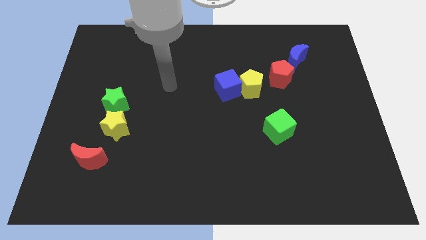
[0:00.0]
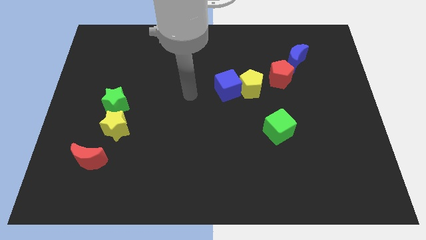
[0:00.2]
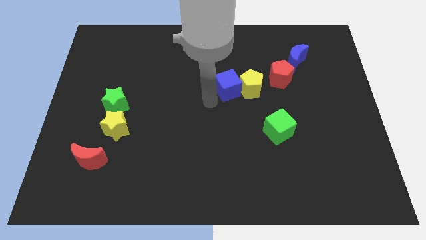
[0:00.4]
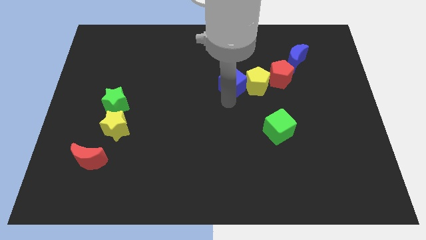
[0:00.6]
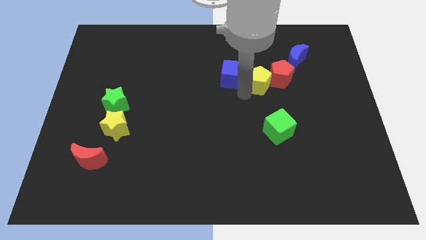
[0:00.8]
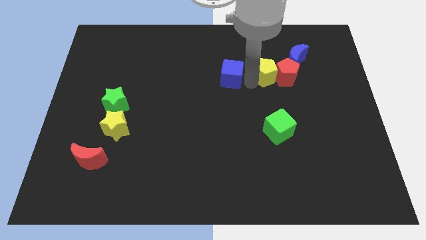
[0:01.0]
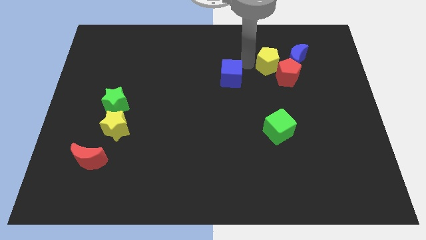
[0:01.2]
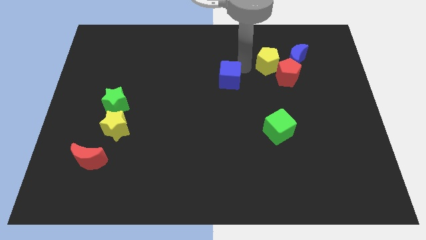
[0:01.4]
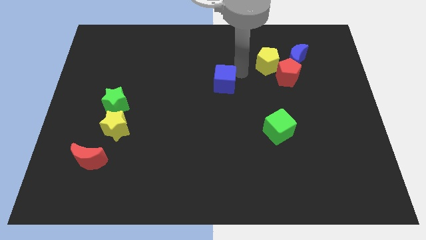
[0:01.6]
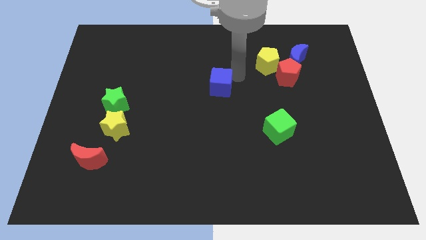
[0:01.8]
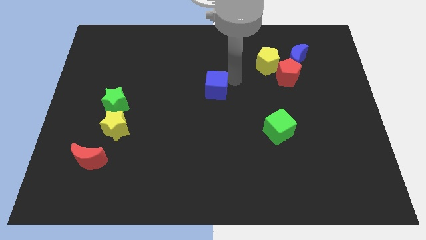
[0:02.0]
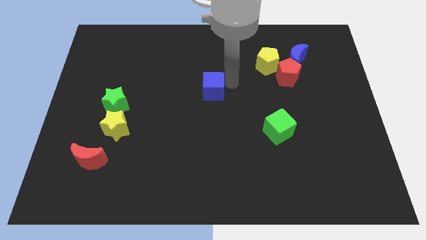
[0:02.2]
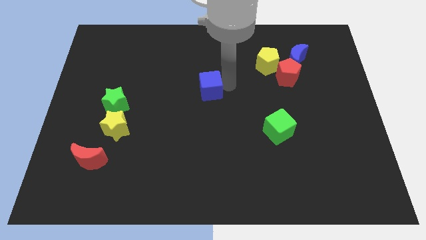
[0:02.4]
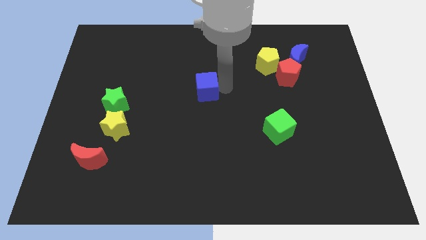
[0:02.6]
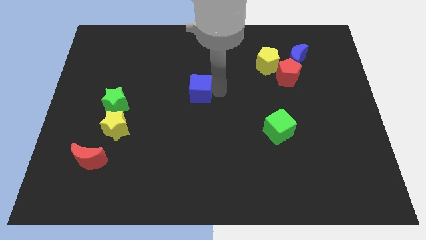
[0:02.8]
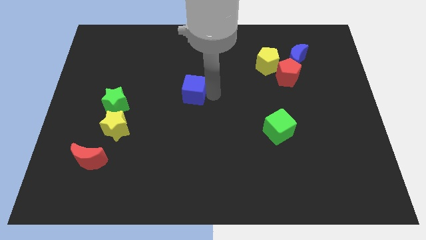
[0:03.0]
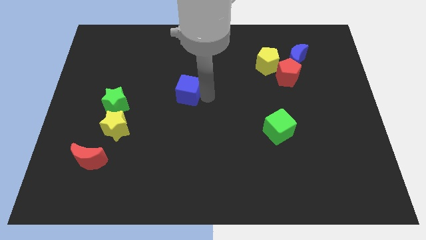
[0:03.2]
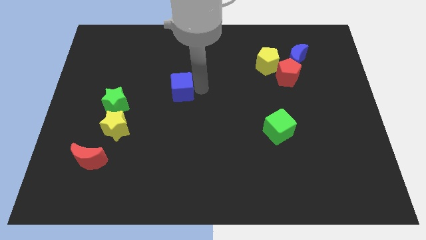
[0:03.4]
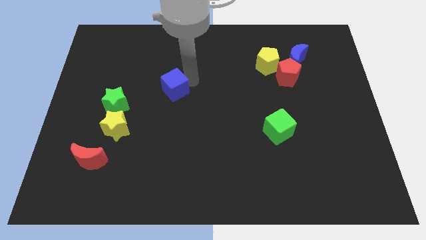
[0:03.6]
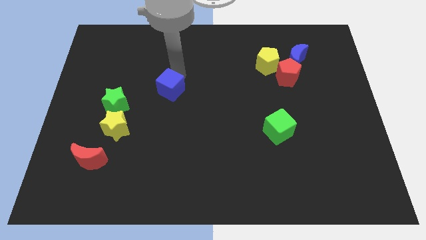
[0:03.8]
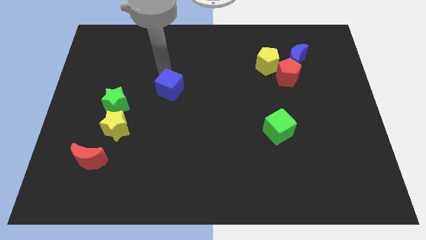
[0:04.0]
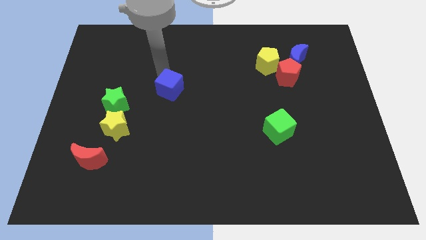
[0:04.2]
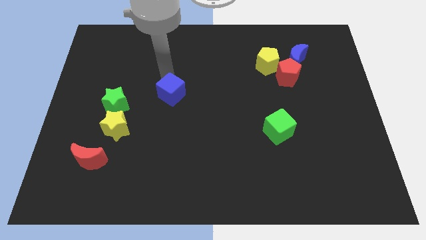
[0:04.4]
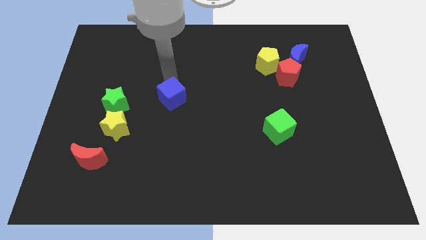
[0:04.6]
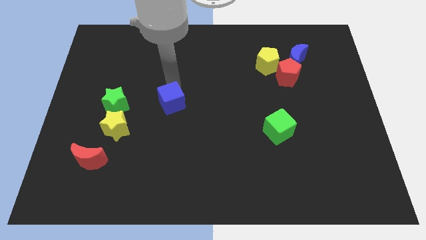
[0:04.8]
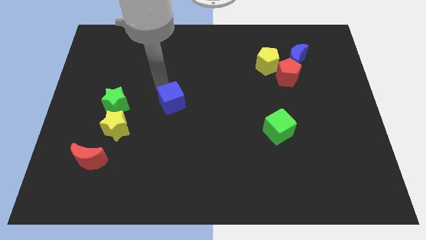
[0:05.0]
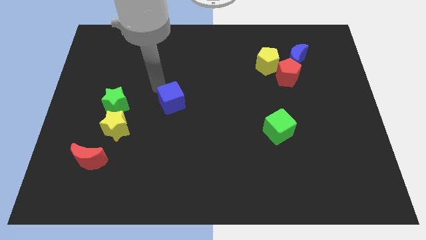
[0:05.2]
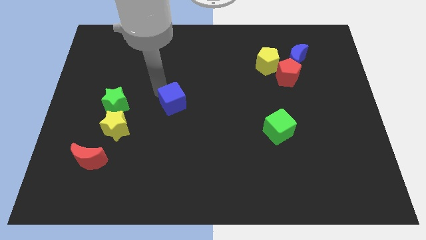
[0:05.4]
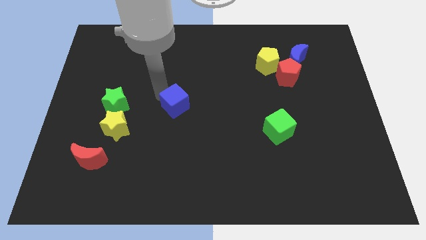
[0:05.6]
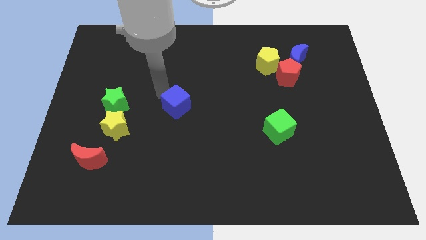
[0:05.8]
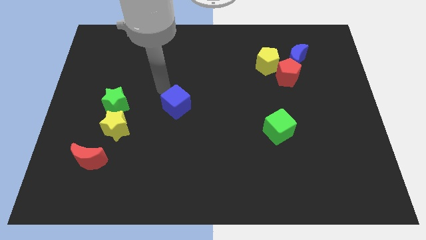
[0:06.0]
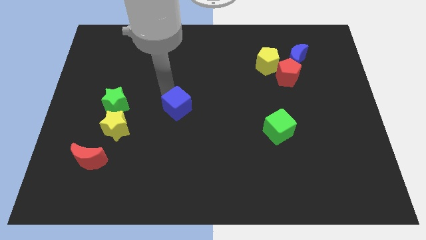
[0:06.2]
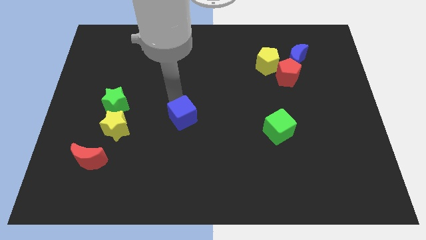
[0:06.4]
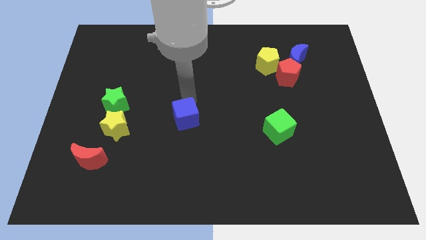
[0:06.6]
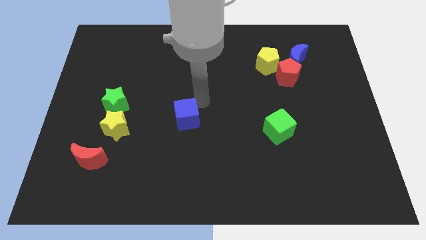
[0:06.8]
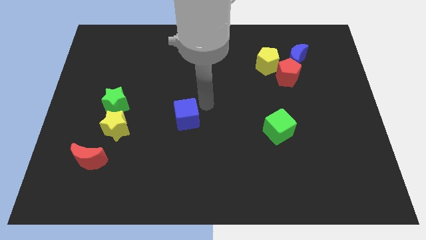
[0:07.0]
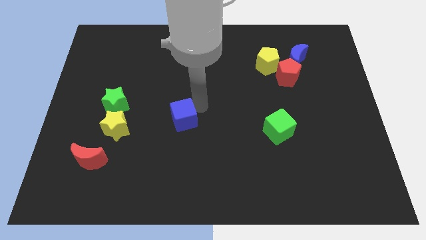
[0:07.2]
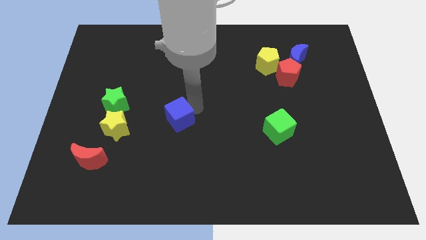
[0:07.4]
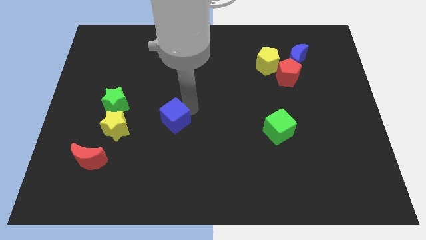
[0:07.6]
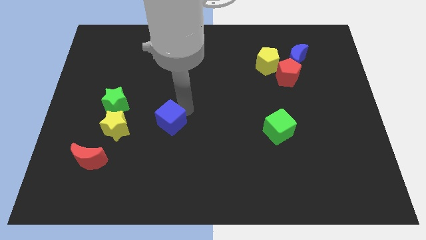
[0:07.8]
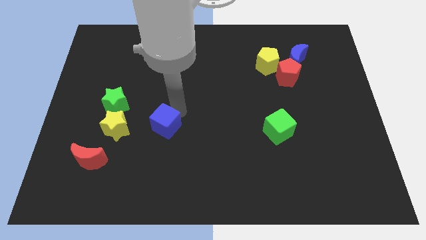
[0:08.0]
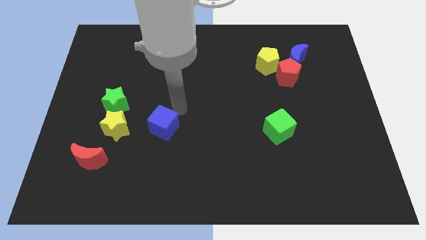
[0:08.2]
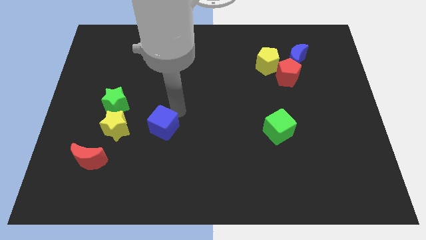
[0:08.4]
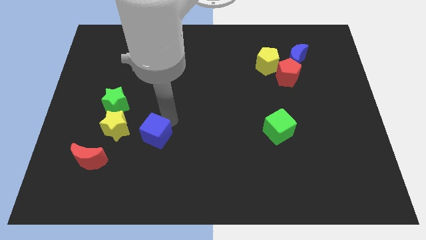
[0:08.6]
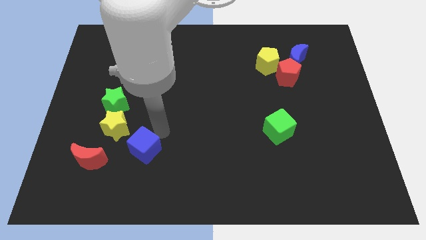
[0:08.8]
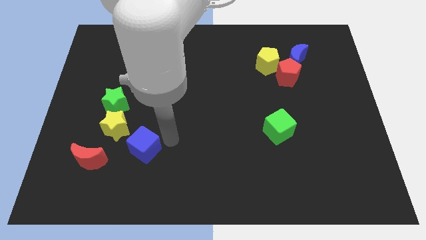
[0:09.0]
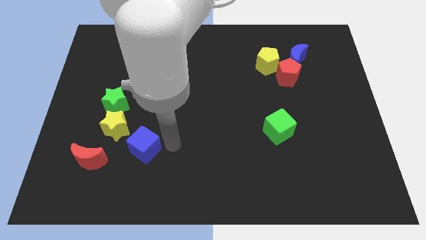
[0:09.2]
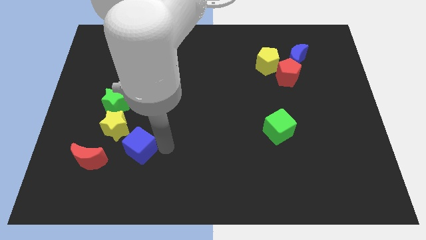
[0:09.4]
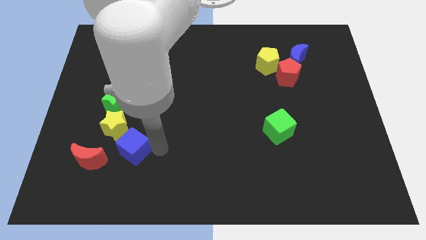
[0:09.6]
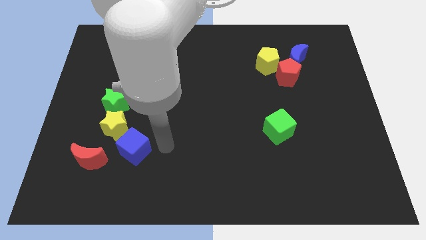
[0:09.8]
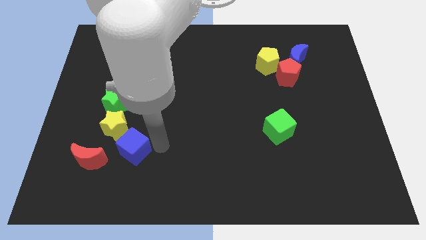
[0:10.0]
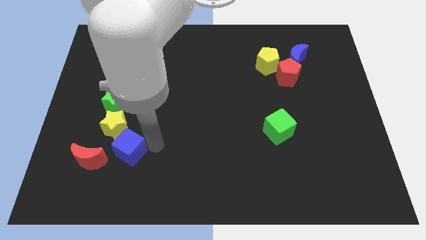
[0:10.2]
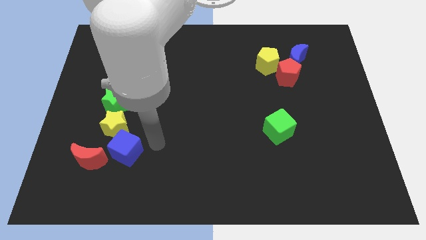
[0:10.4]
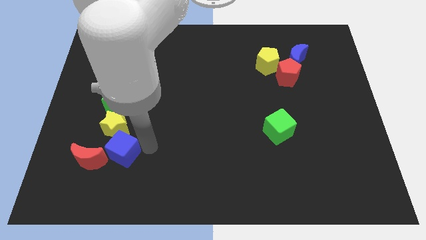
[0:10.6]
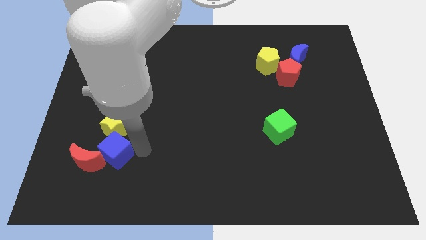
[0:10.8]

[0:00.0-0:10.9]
move the blue cube close to the red moon

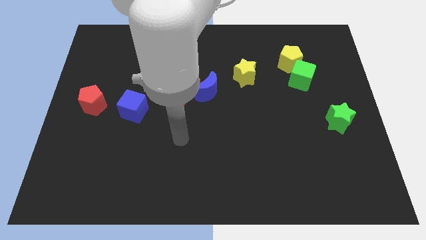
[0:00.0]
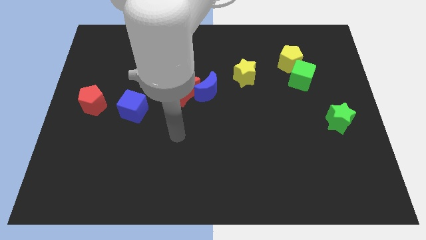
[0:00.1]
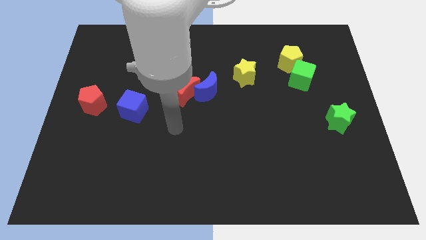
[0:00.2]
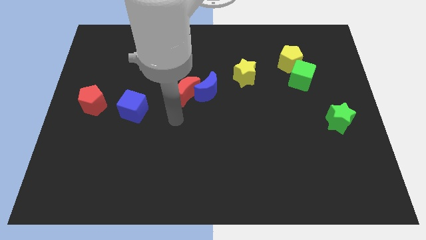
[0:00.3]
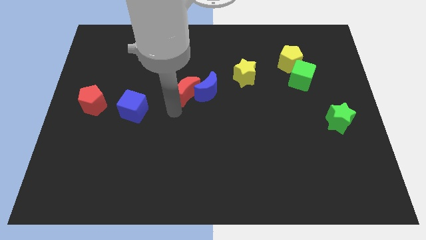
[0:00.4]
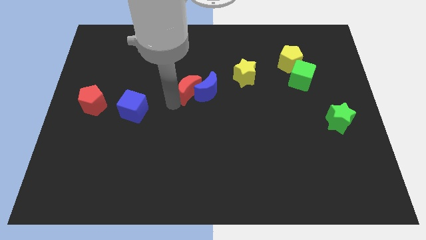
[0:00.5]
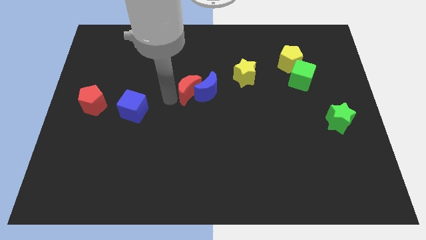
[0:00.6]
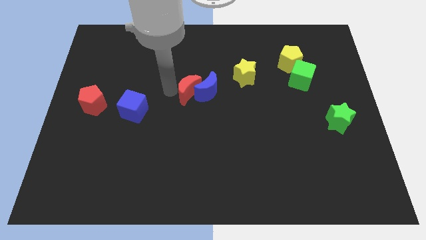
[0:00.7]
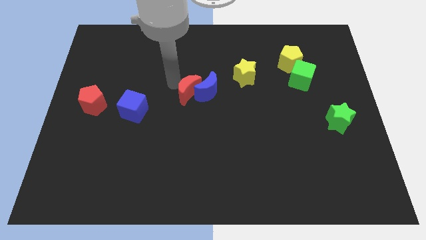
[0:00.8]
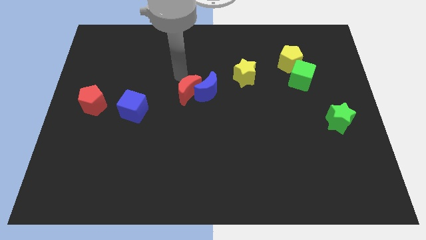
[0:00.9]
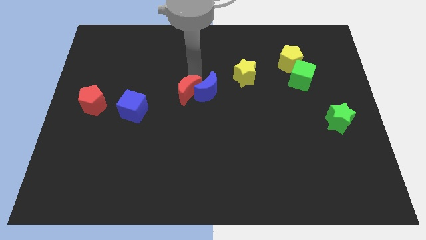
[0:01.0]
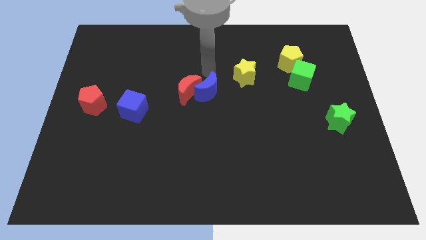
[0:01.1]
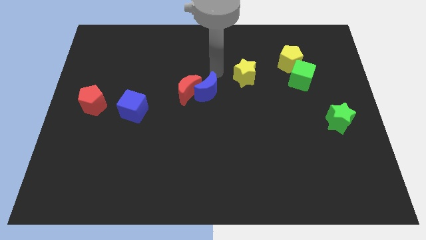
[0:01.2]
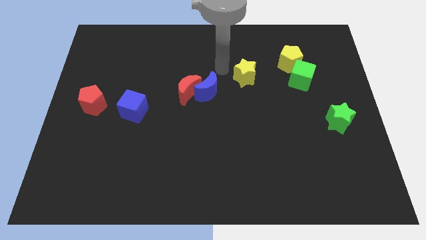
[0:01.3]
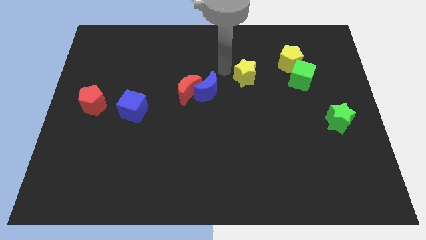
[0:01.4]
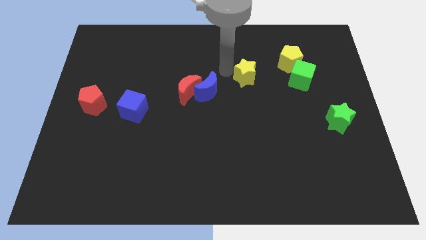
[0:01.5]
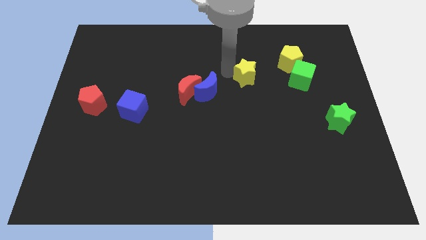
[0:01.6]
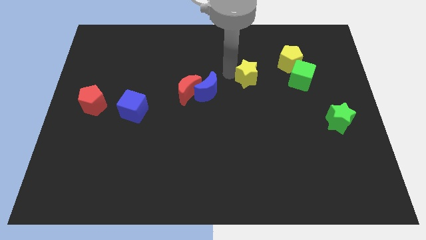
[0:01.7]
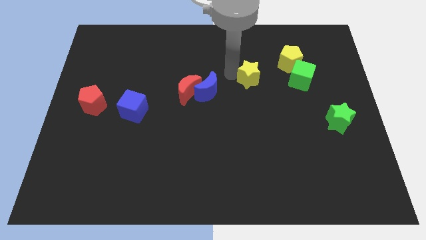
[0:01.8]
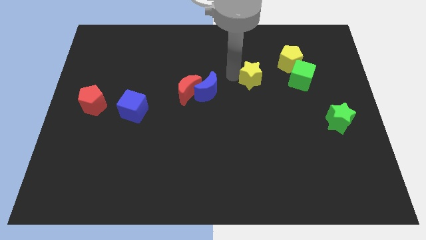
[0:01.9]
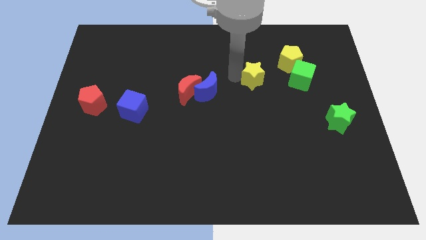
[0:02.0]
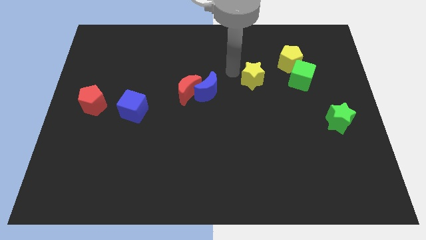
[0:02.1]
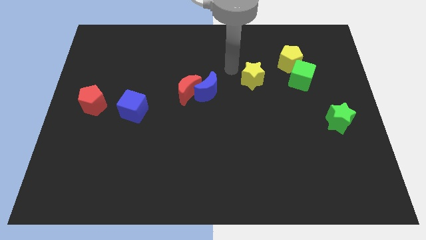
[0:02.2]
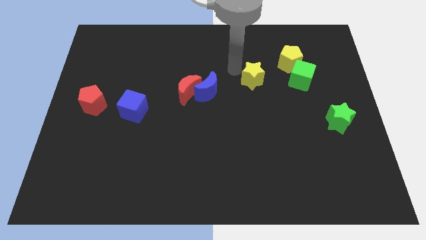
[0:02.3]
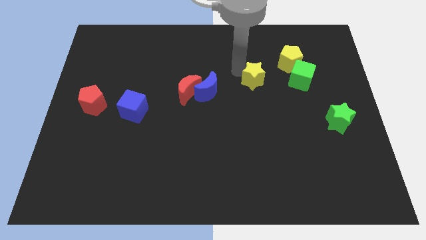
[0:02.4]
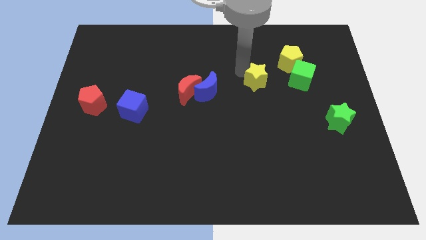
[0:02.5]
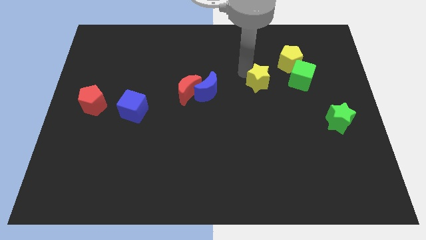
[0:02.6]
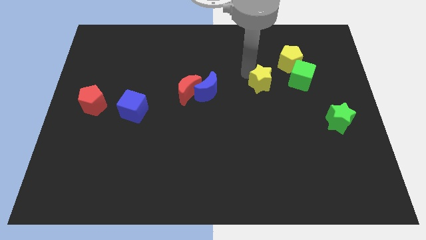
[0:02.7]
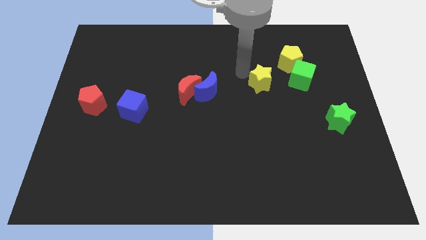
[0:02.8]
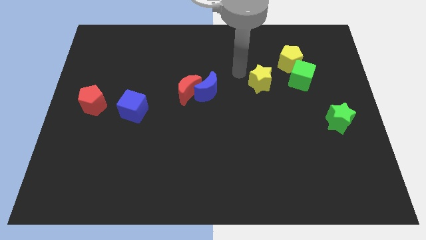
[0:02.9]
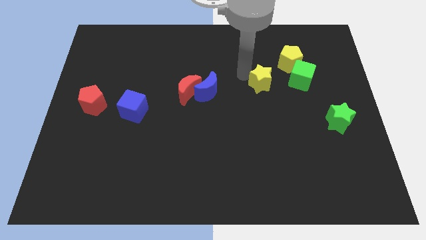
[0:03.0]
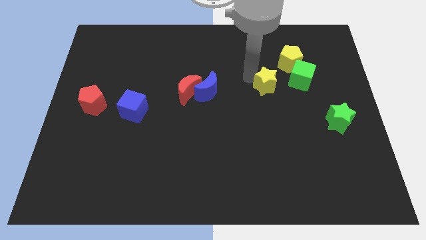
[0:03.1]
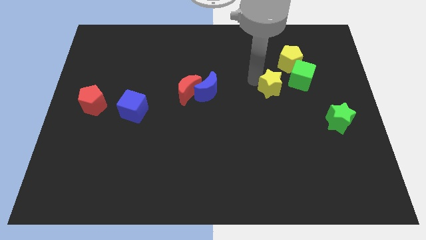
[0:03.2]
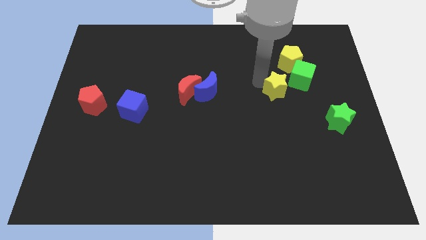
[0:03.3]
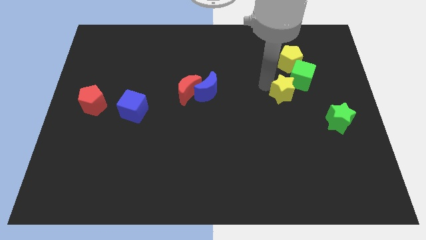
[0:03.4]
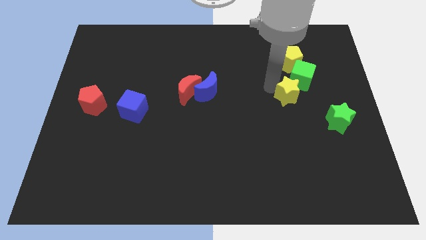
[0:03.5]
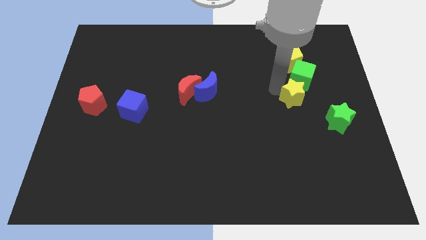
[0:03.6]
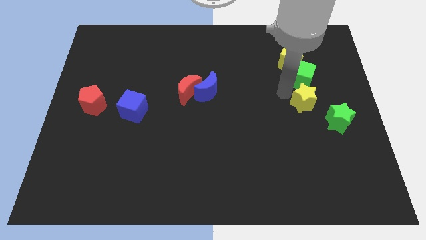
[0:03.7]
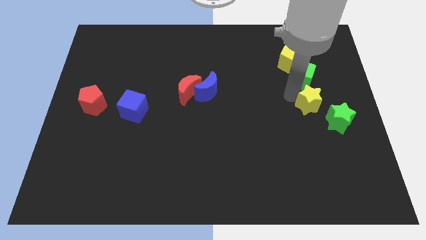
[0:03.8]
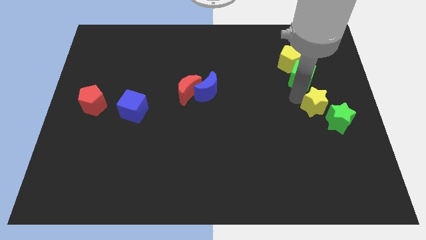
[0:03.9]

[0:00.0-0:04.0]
push the yellow star next to the green star
